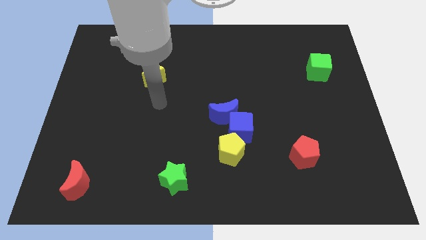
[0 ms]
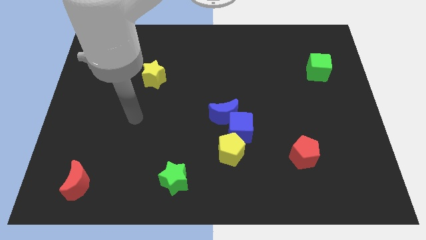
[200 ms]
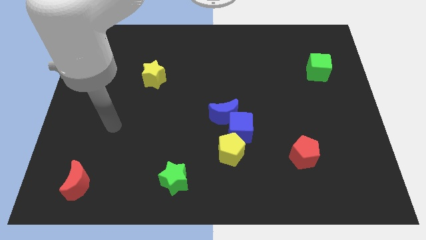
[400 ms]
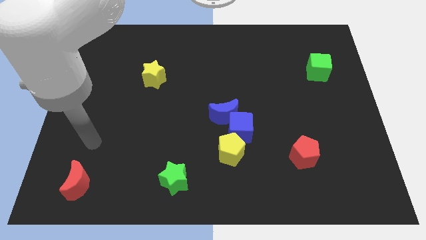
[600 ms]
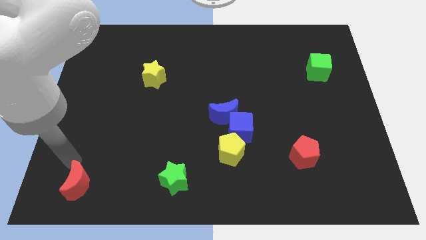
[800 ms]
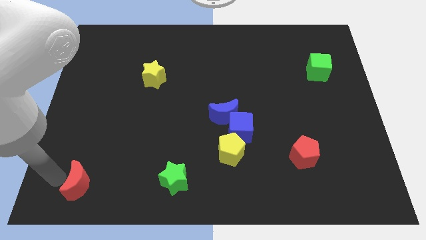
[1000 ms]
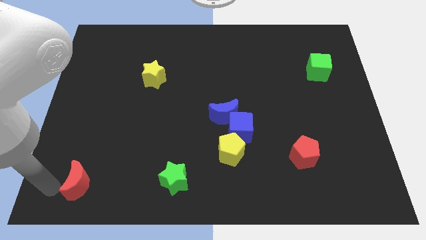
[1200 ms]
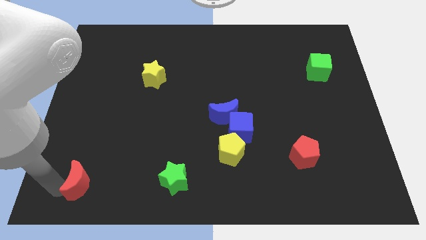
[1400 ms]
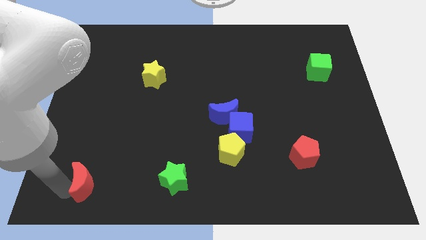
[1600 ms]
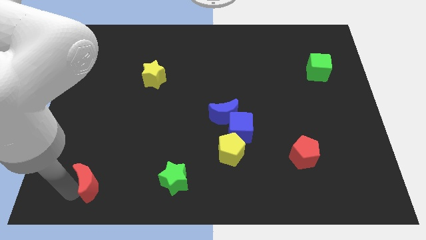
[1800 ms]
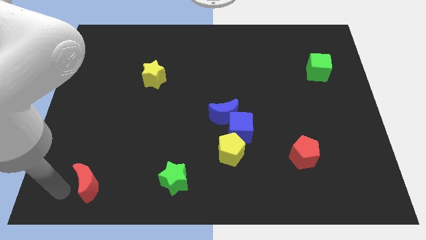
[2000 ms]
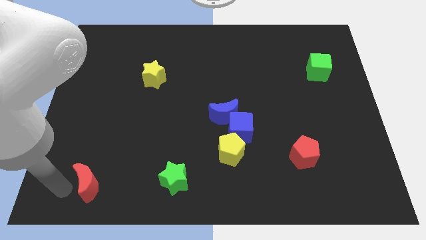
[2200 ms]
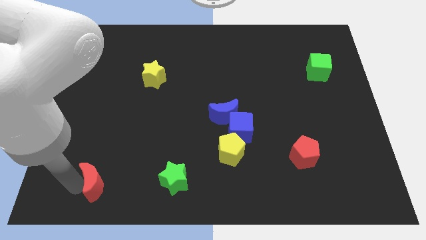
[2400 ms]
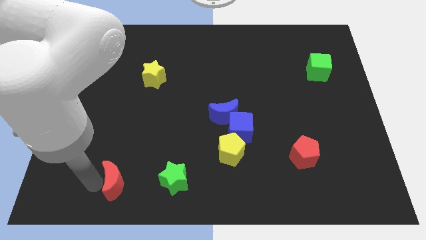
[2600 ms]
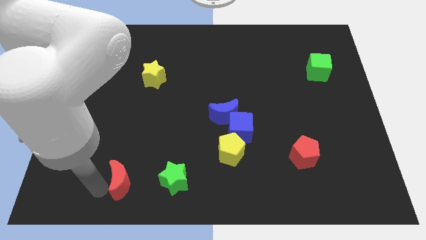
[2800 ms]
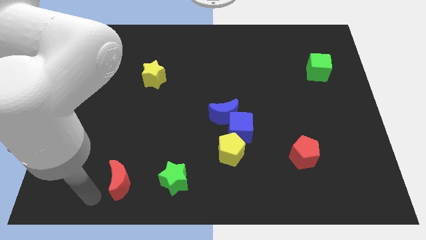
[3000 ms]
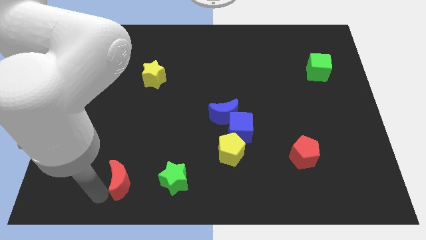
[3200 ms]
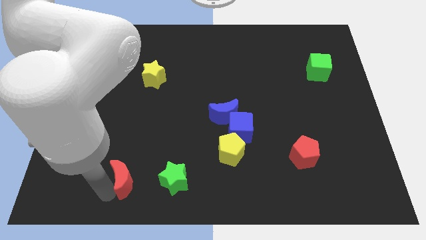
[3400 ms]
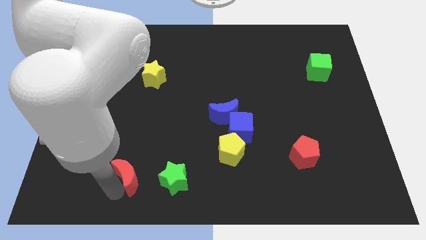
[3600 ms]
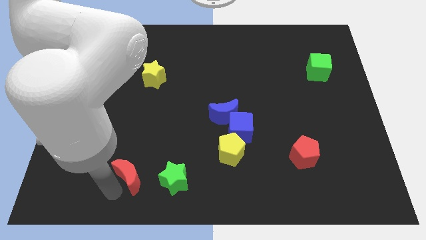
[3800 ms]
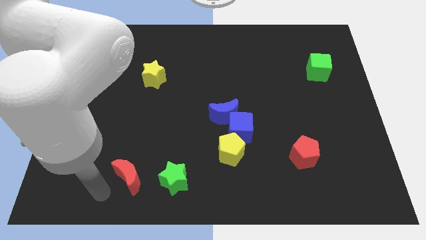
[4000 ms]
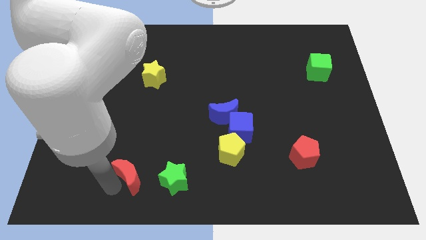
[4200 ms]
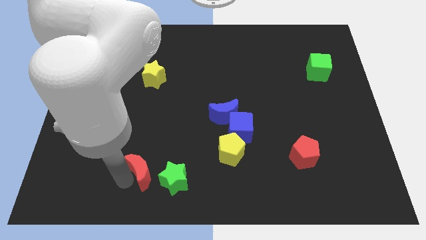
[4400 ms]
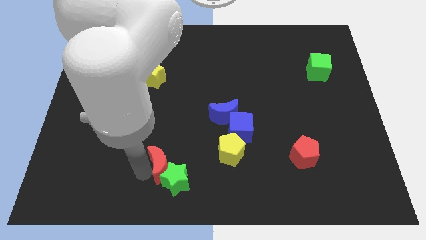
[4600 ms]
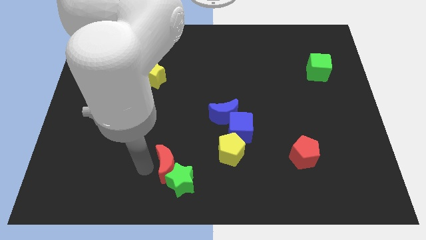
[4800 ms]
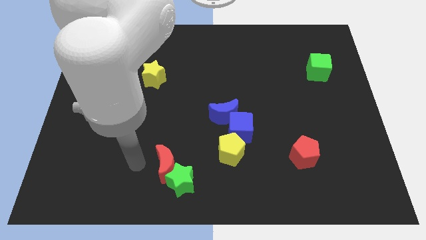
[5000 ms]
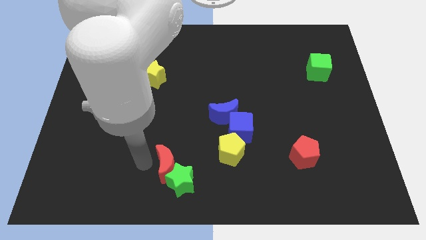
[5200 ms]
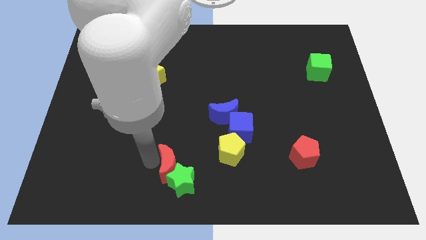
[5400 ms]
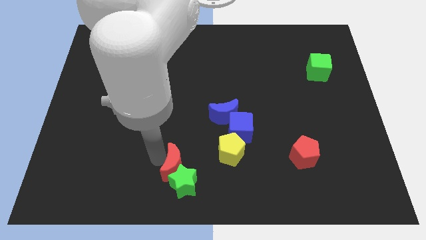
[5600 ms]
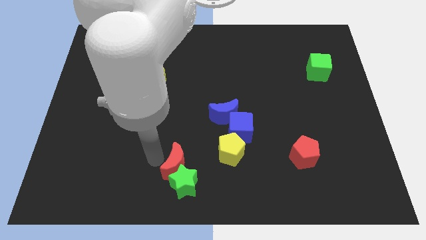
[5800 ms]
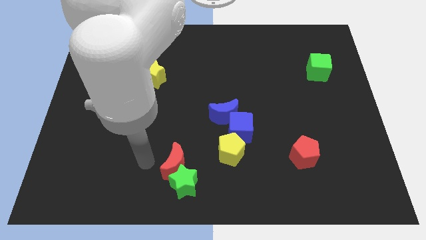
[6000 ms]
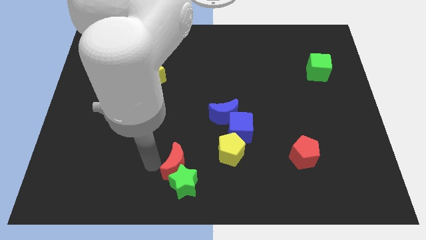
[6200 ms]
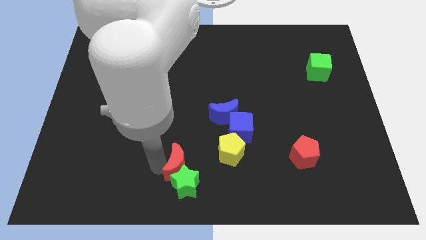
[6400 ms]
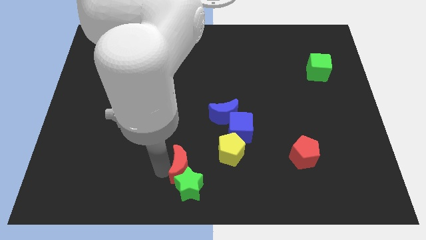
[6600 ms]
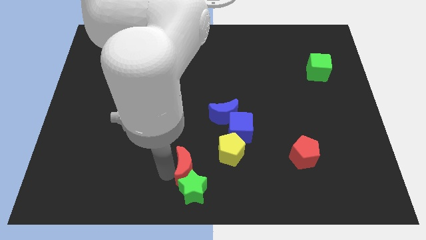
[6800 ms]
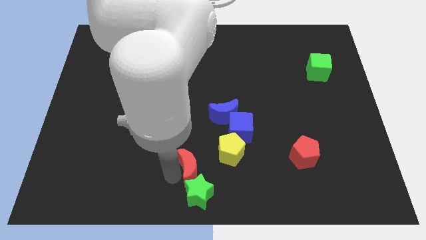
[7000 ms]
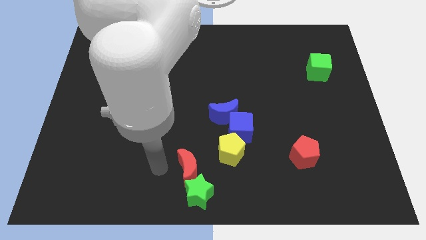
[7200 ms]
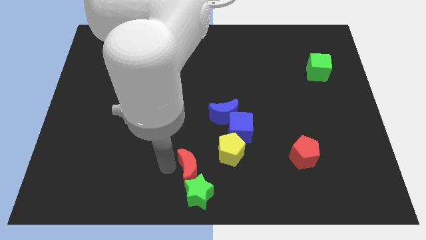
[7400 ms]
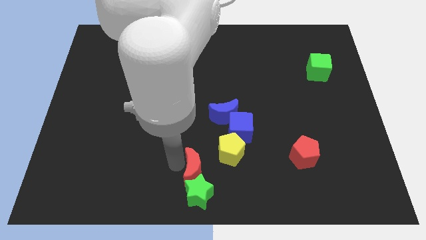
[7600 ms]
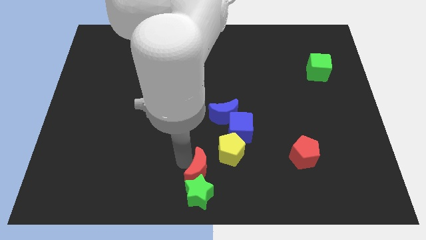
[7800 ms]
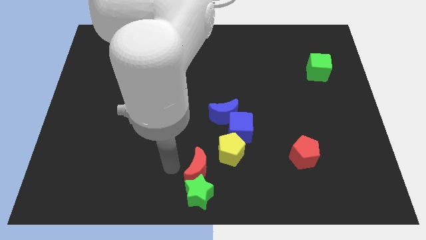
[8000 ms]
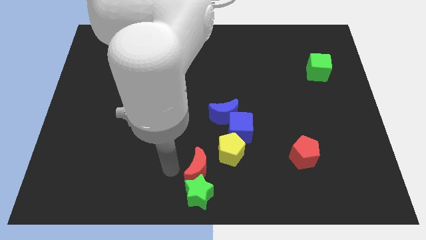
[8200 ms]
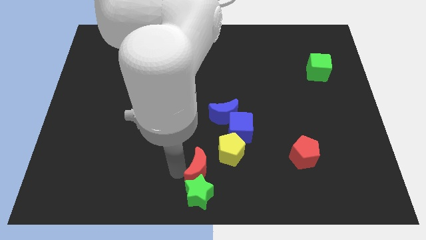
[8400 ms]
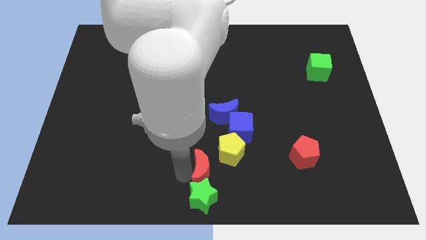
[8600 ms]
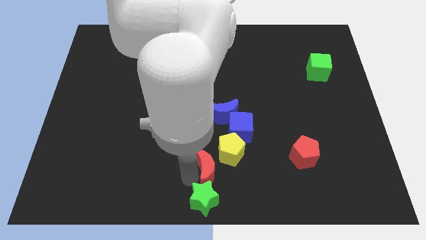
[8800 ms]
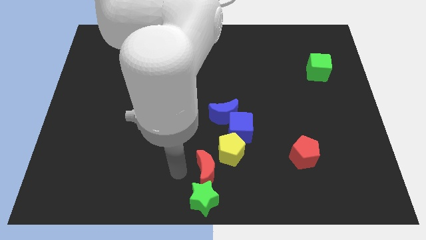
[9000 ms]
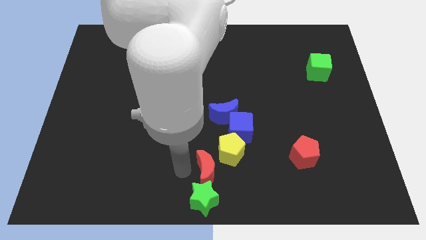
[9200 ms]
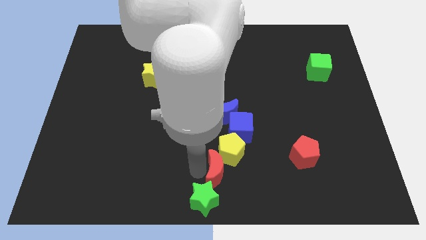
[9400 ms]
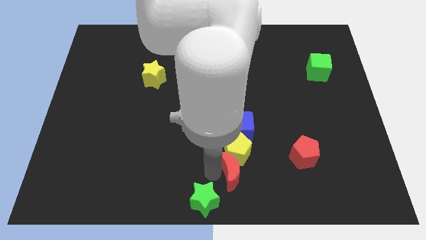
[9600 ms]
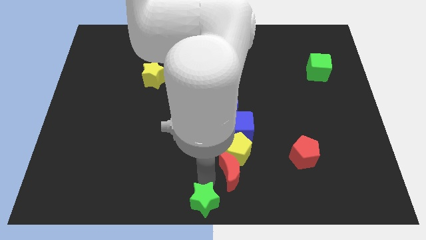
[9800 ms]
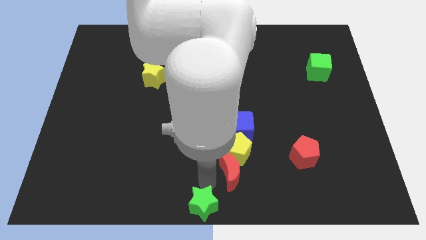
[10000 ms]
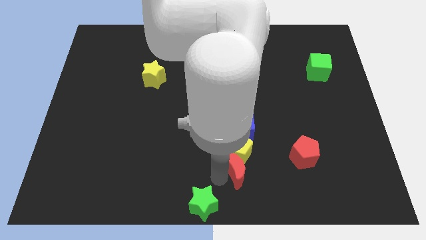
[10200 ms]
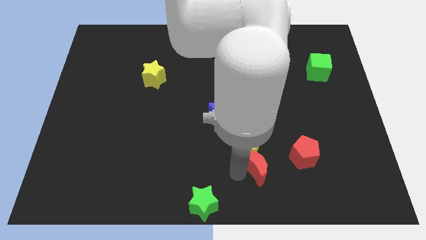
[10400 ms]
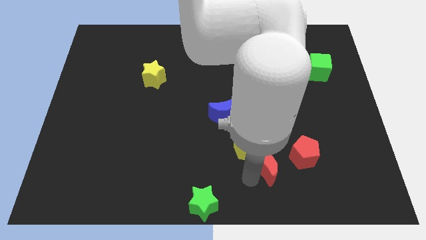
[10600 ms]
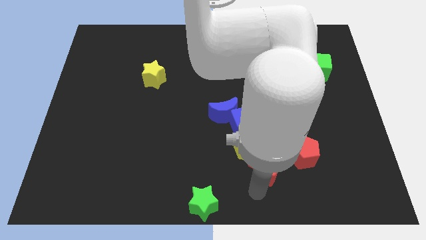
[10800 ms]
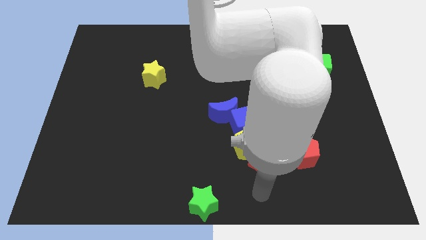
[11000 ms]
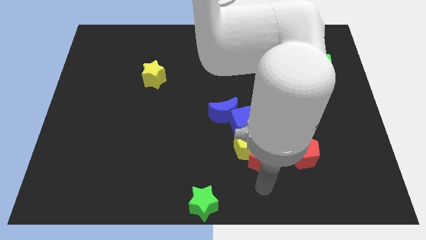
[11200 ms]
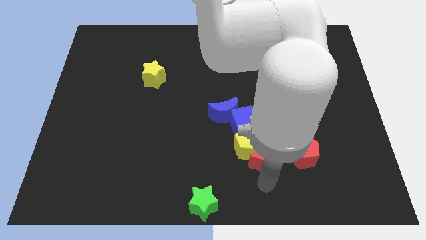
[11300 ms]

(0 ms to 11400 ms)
move the red moon to the bottom right of the blue cube

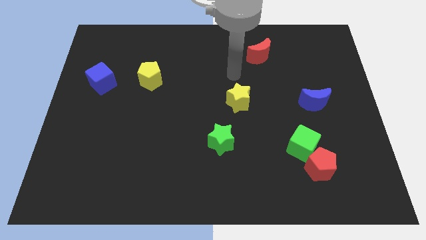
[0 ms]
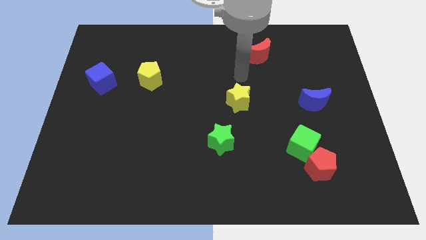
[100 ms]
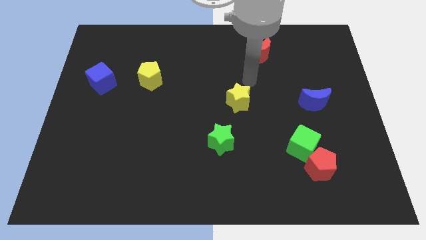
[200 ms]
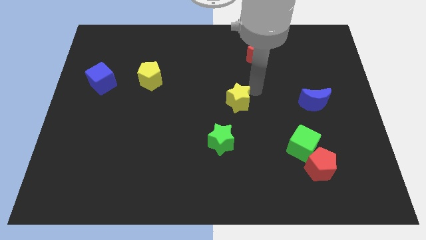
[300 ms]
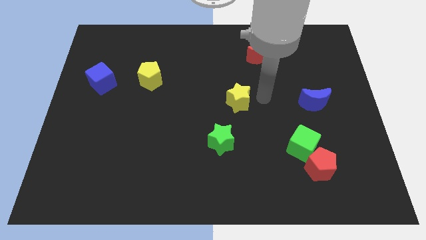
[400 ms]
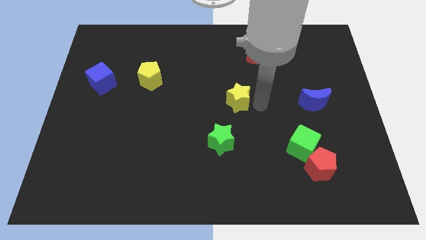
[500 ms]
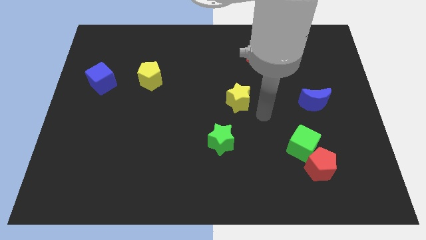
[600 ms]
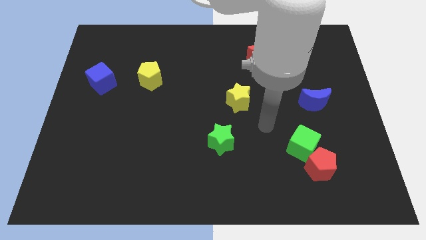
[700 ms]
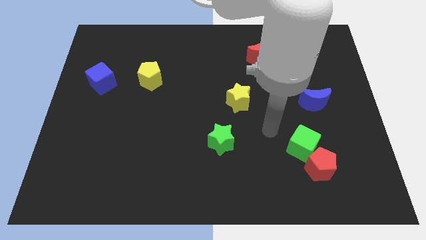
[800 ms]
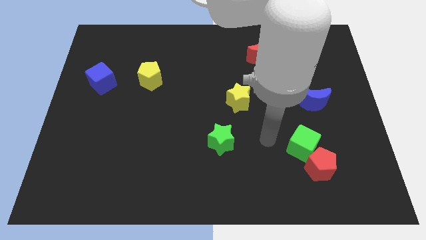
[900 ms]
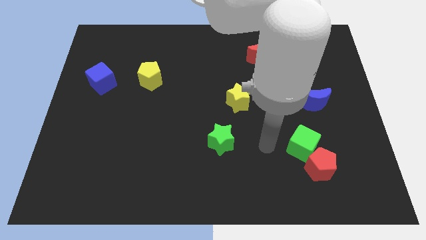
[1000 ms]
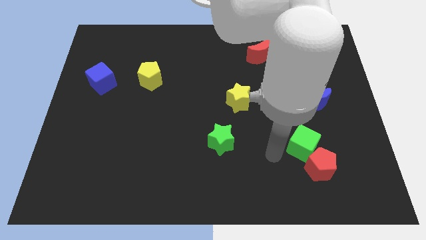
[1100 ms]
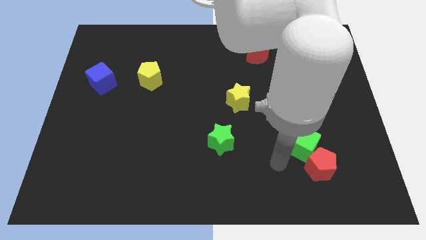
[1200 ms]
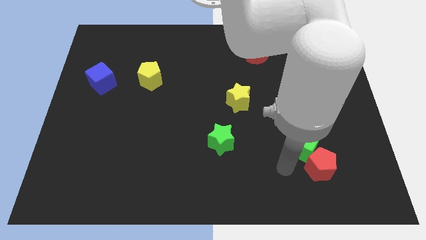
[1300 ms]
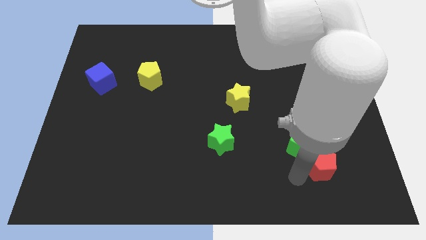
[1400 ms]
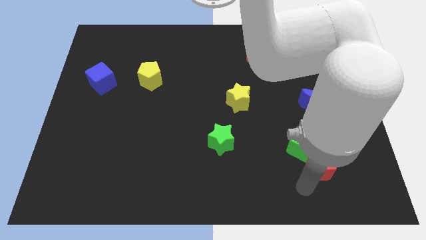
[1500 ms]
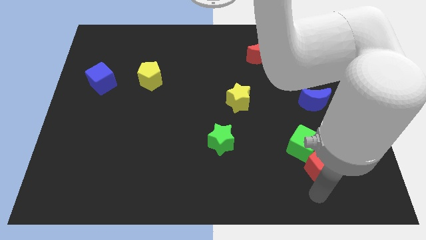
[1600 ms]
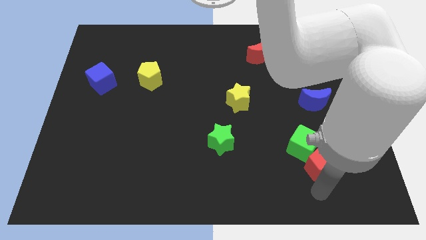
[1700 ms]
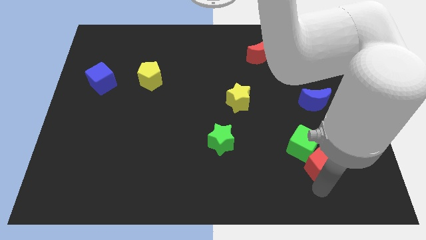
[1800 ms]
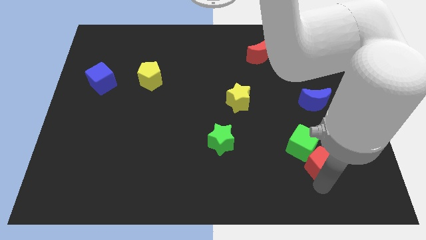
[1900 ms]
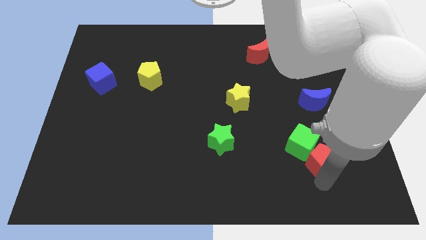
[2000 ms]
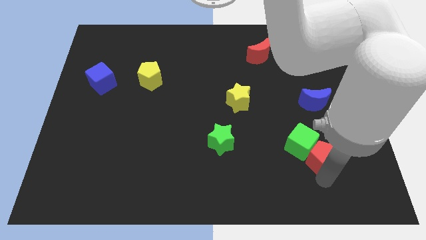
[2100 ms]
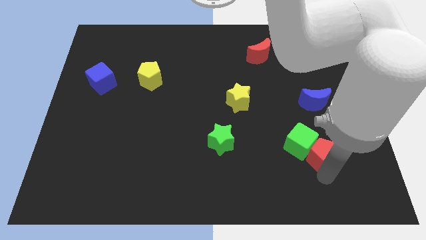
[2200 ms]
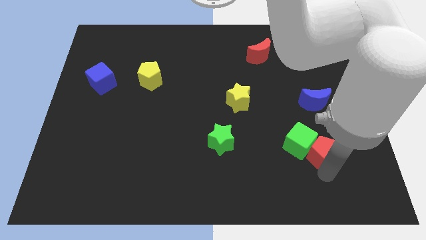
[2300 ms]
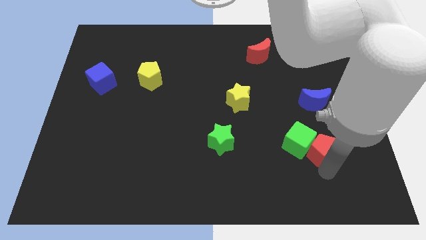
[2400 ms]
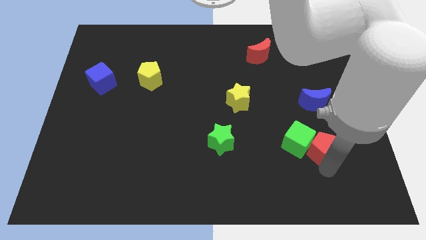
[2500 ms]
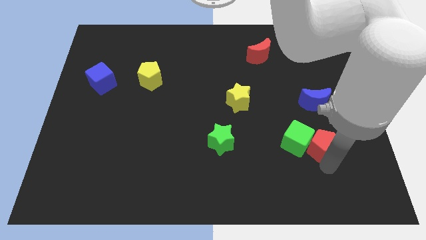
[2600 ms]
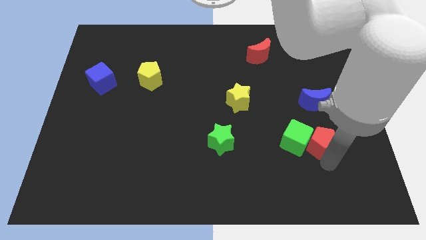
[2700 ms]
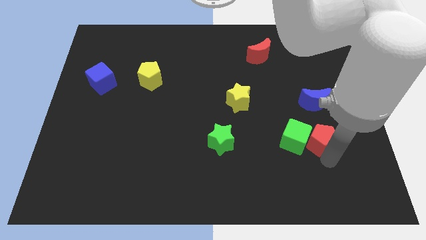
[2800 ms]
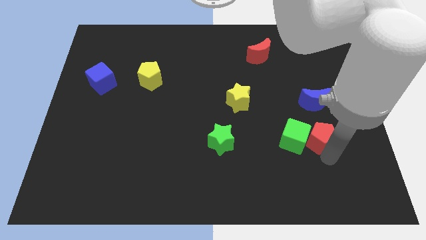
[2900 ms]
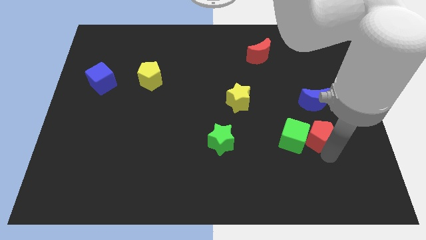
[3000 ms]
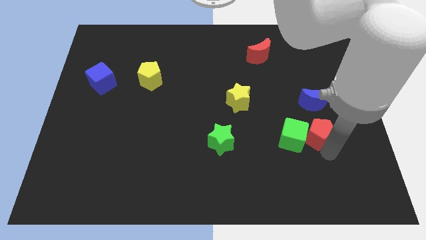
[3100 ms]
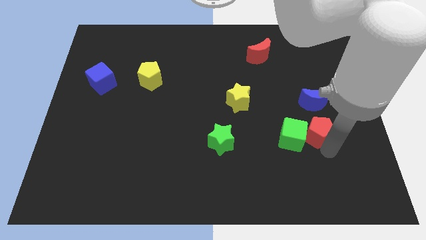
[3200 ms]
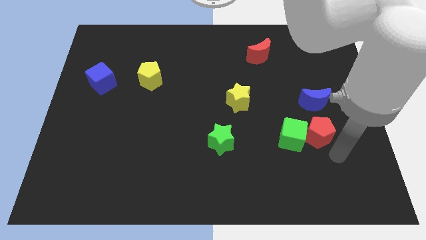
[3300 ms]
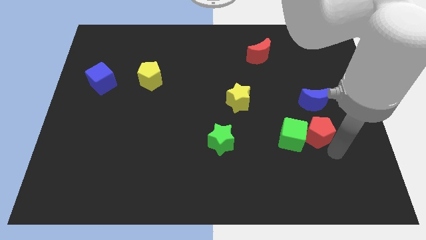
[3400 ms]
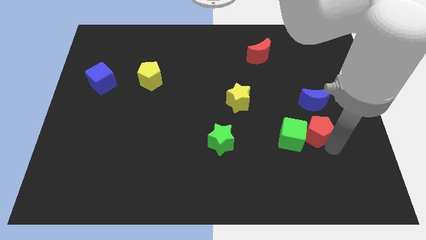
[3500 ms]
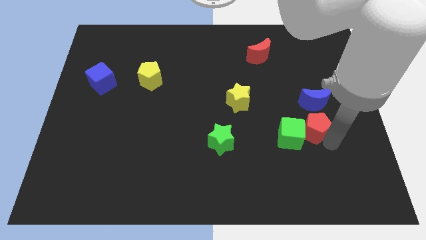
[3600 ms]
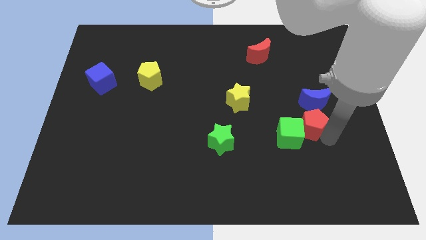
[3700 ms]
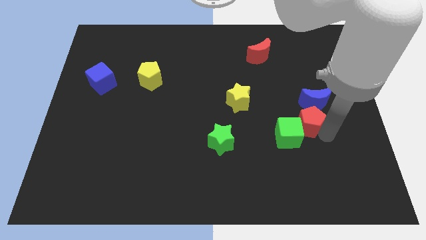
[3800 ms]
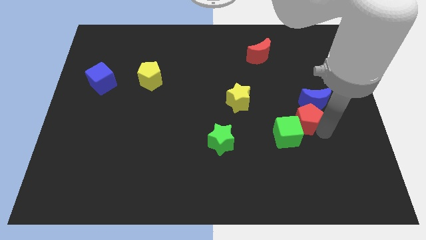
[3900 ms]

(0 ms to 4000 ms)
move the red pentagon to the top of the green cube
